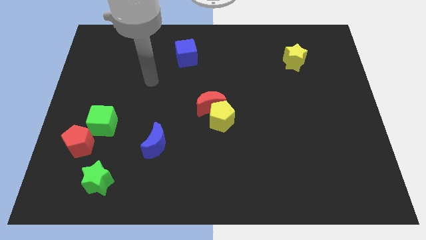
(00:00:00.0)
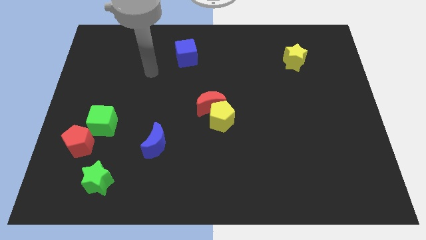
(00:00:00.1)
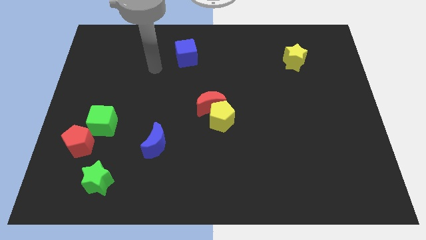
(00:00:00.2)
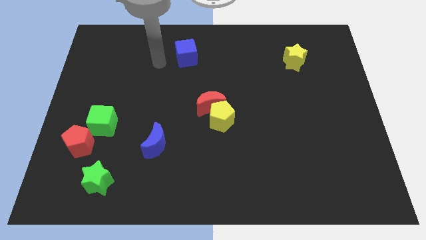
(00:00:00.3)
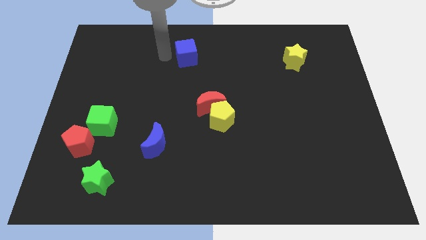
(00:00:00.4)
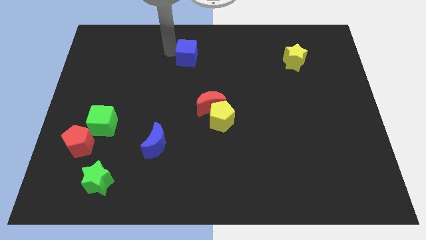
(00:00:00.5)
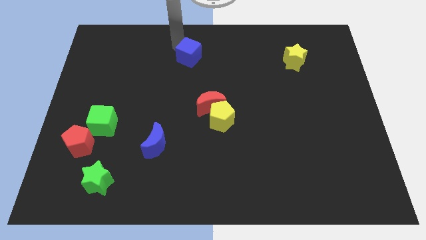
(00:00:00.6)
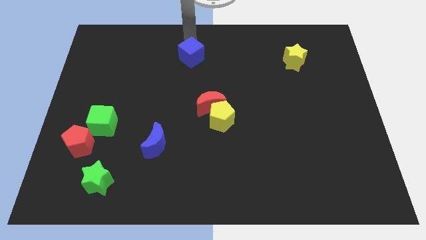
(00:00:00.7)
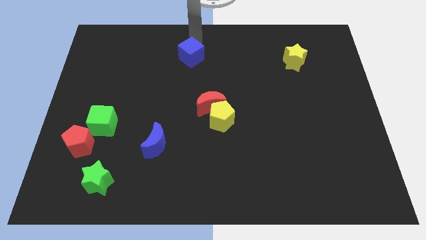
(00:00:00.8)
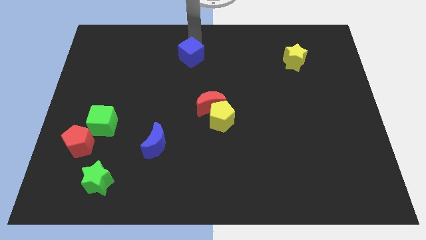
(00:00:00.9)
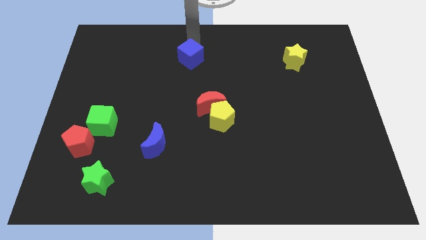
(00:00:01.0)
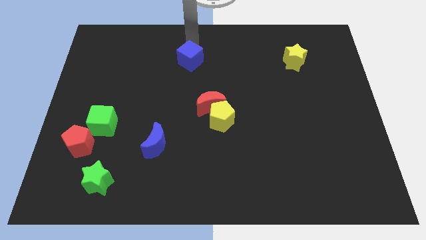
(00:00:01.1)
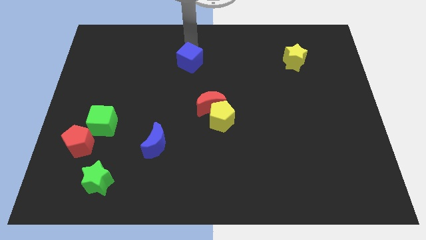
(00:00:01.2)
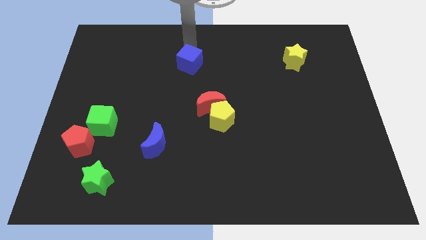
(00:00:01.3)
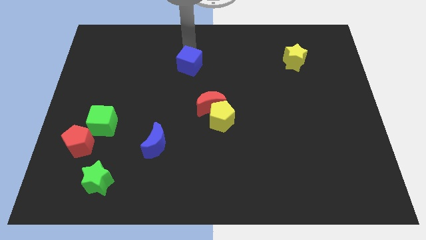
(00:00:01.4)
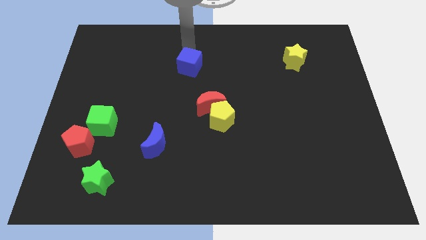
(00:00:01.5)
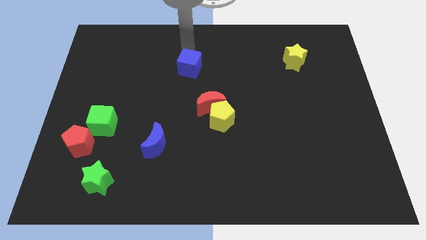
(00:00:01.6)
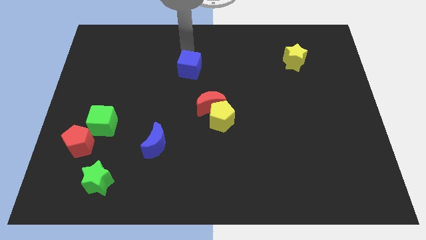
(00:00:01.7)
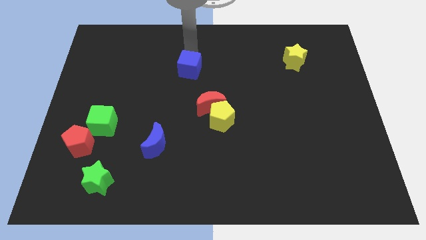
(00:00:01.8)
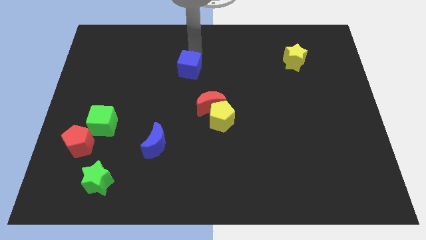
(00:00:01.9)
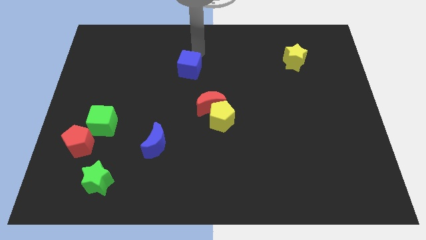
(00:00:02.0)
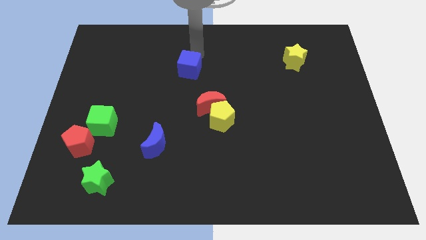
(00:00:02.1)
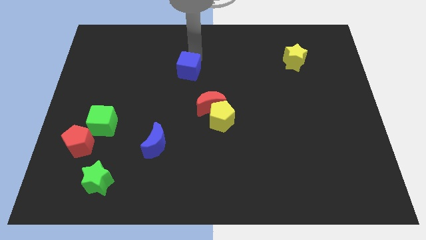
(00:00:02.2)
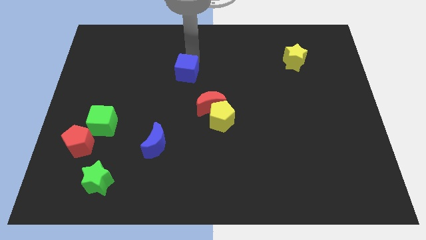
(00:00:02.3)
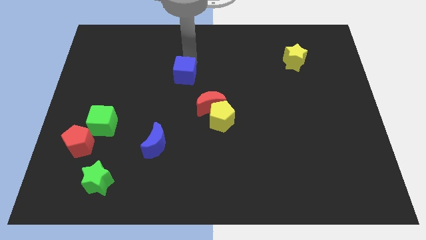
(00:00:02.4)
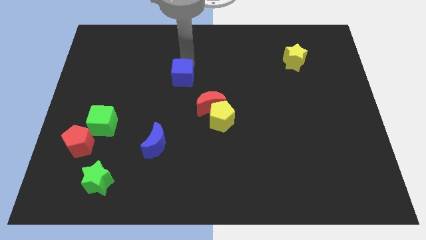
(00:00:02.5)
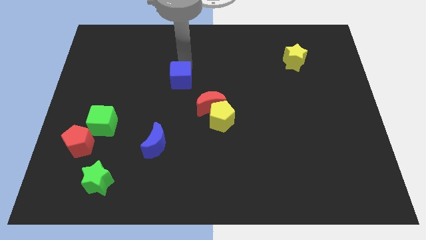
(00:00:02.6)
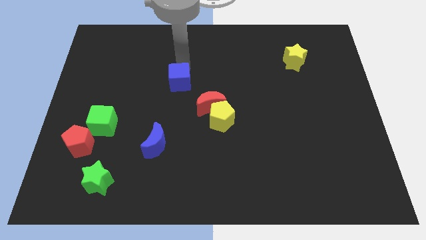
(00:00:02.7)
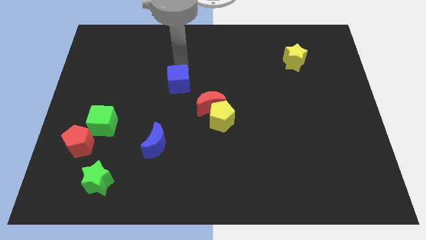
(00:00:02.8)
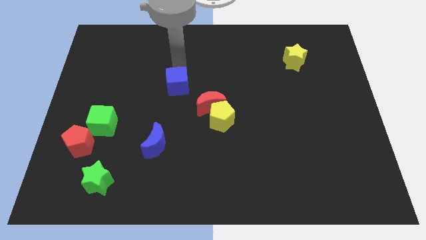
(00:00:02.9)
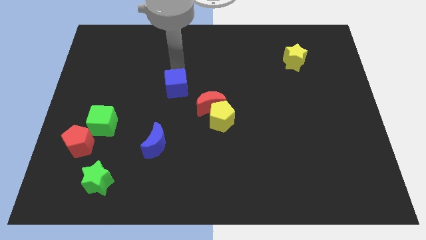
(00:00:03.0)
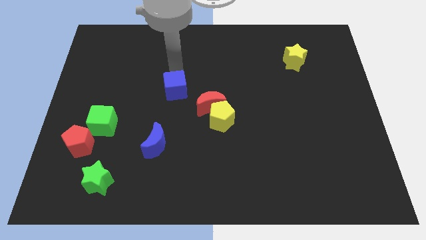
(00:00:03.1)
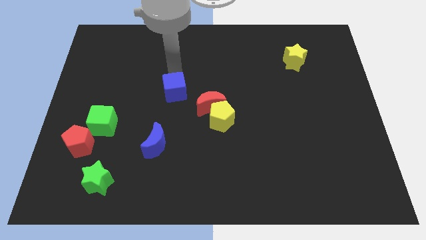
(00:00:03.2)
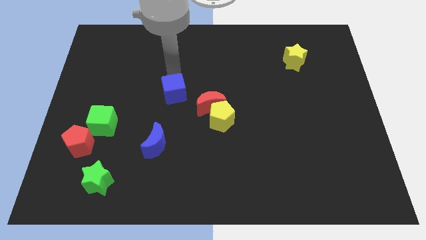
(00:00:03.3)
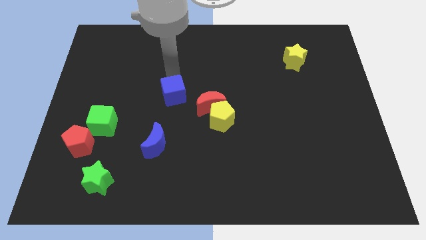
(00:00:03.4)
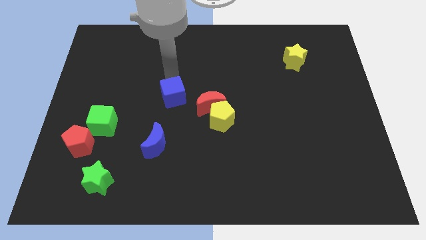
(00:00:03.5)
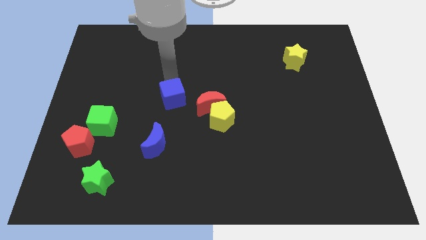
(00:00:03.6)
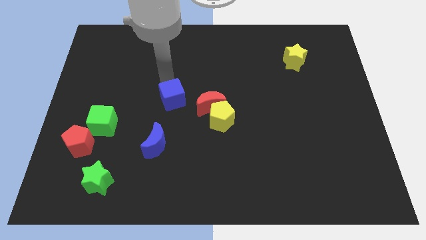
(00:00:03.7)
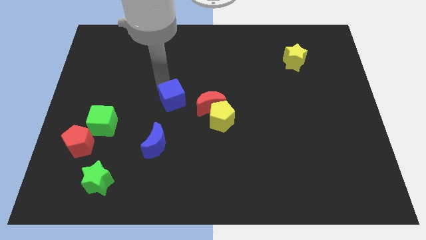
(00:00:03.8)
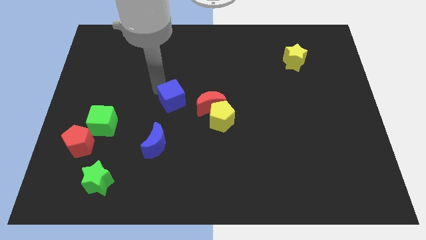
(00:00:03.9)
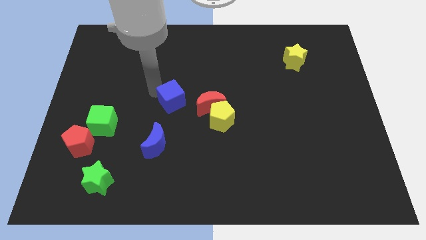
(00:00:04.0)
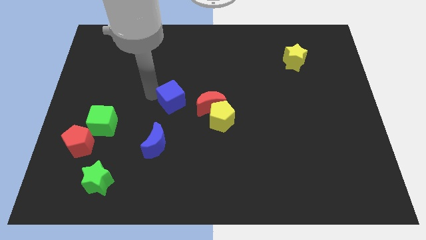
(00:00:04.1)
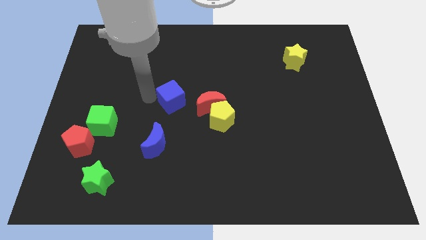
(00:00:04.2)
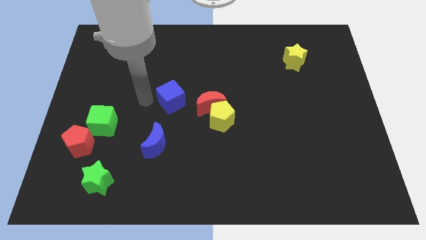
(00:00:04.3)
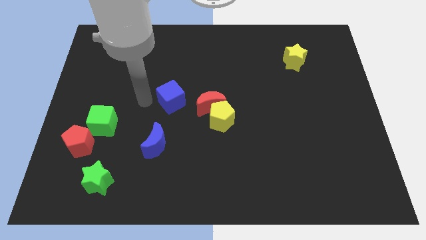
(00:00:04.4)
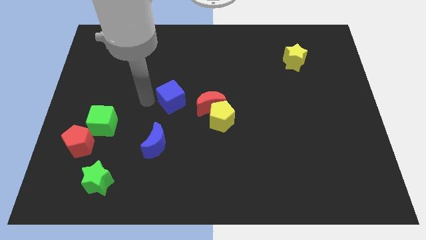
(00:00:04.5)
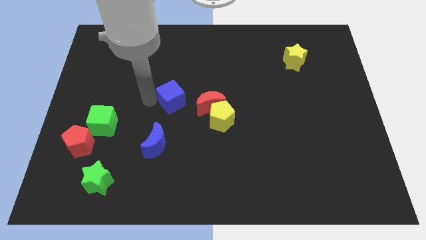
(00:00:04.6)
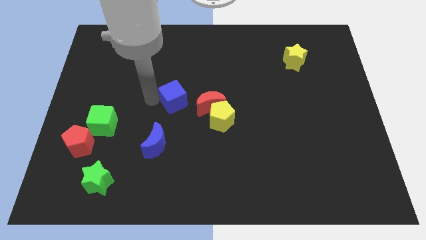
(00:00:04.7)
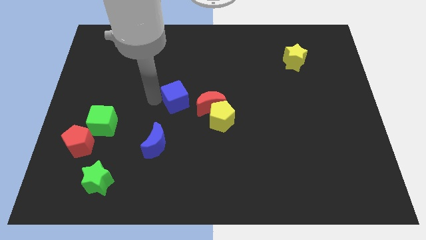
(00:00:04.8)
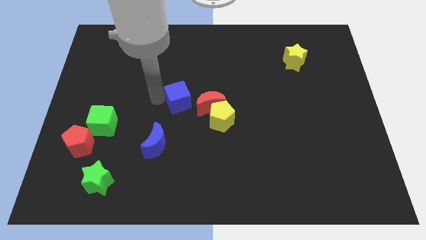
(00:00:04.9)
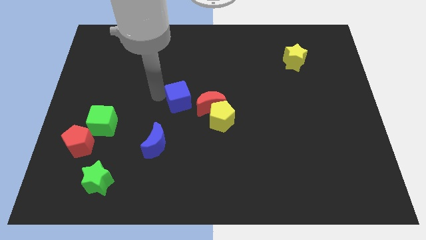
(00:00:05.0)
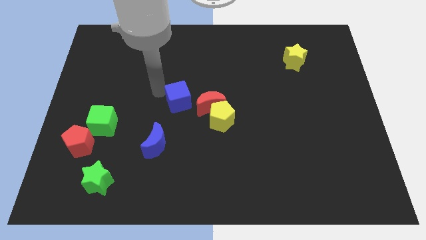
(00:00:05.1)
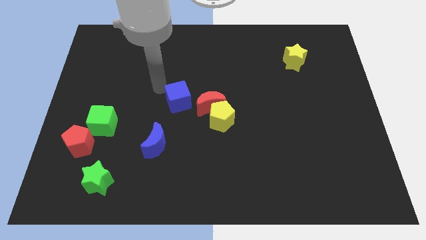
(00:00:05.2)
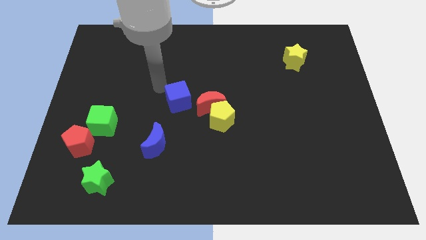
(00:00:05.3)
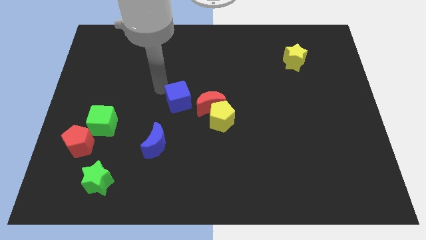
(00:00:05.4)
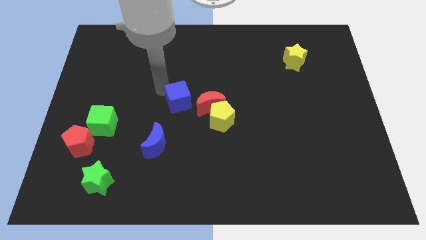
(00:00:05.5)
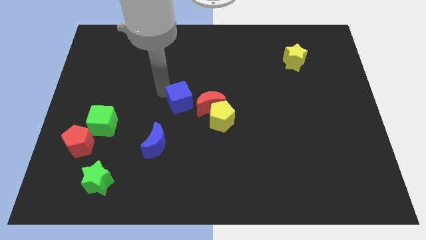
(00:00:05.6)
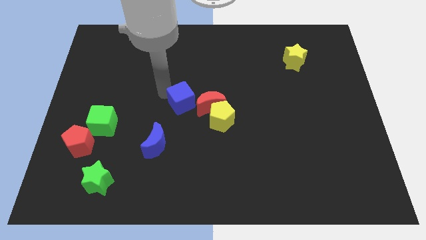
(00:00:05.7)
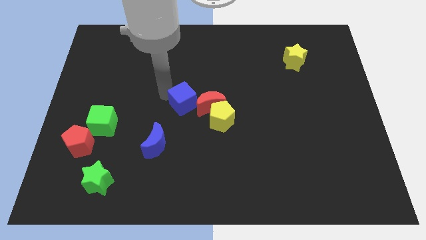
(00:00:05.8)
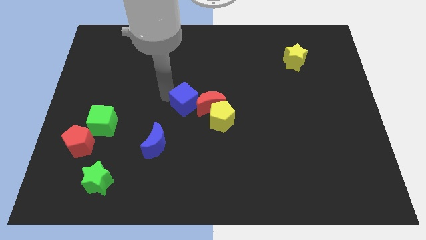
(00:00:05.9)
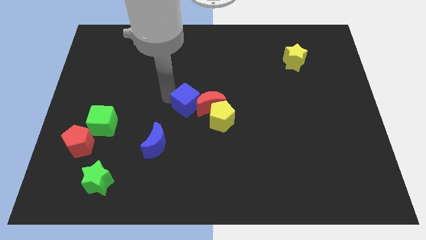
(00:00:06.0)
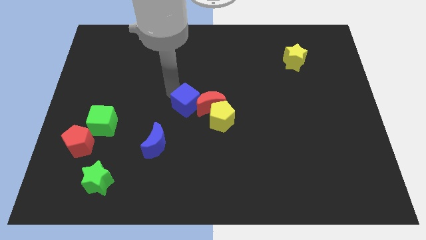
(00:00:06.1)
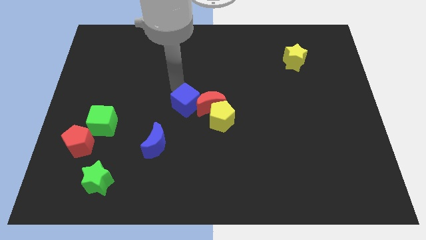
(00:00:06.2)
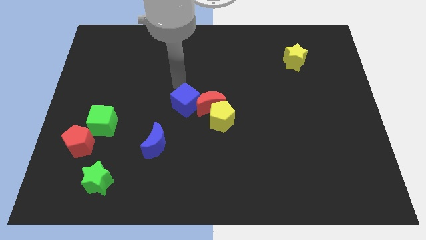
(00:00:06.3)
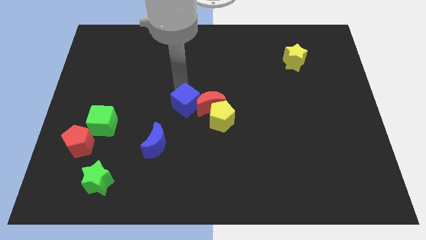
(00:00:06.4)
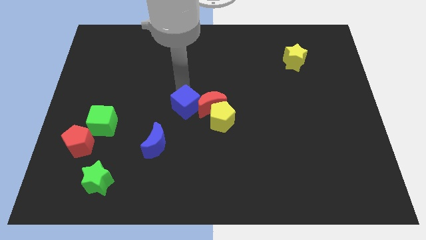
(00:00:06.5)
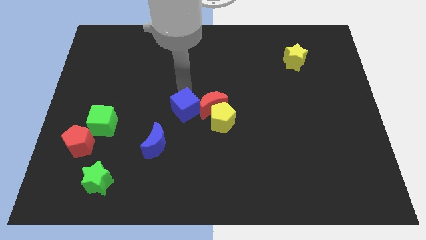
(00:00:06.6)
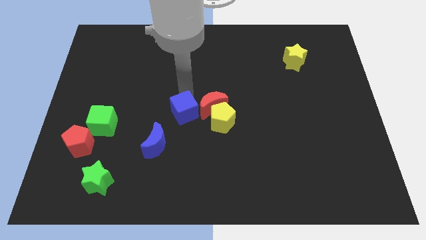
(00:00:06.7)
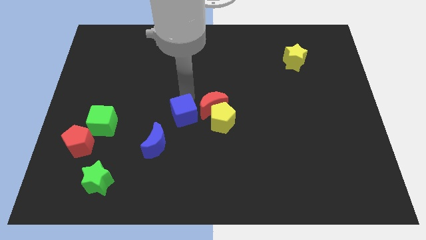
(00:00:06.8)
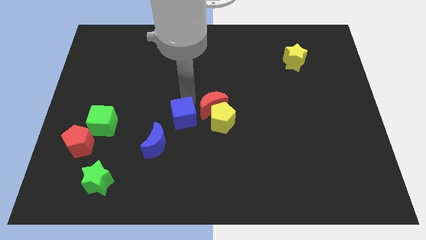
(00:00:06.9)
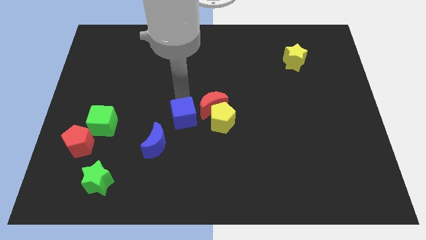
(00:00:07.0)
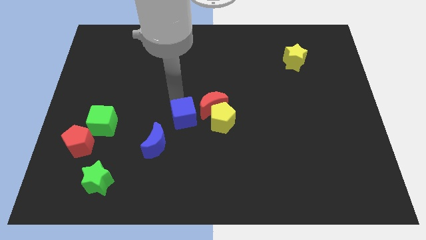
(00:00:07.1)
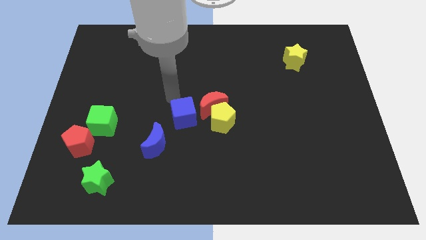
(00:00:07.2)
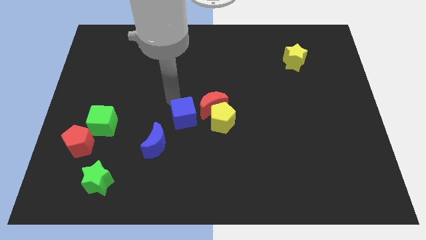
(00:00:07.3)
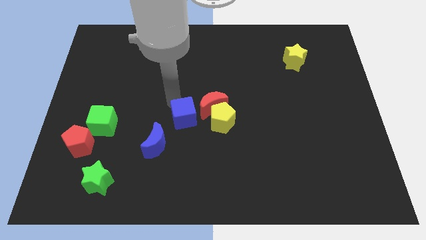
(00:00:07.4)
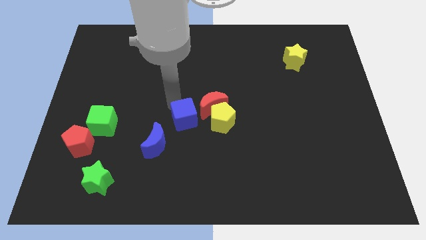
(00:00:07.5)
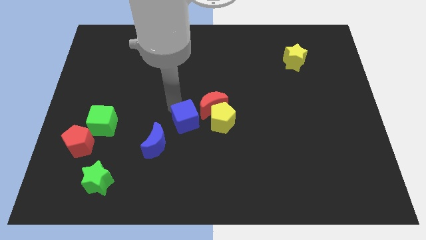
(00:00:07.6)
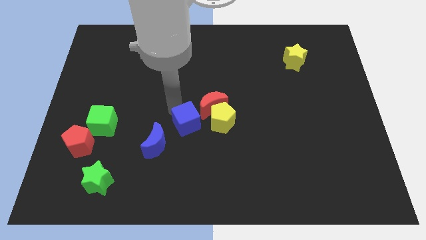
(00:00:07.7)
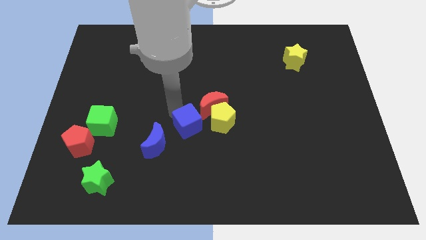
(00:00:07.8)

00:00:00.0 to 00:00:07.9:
move the blue cube to the bottom left side of the yellow pentagon

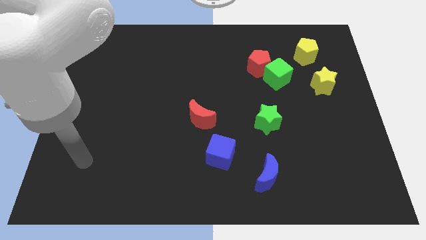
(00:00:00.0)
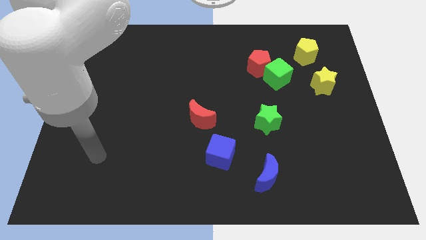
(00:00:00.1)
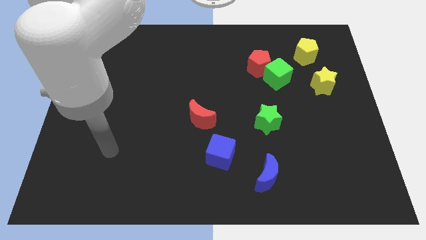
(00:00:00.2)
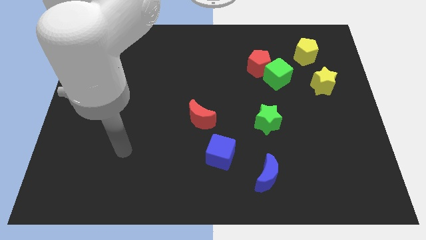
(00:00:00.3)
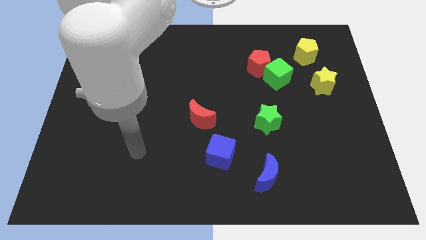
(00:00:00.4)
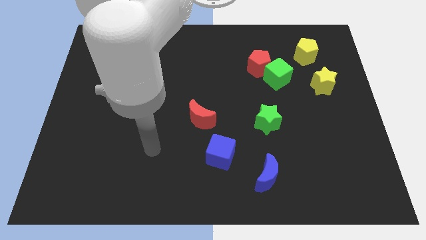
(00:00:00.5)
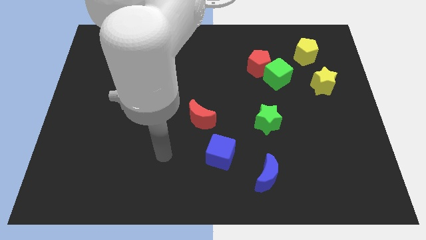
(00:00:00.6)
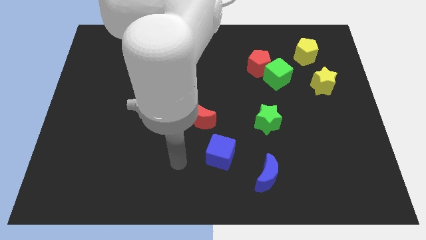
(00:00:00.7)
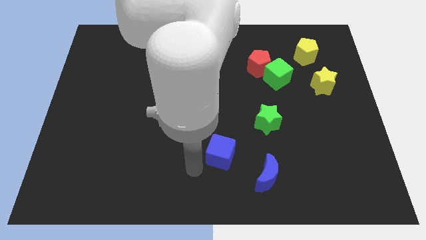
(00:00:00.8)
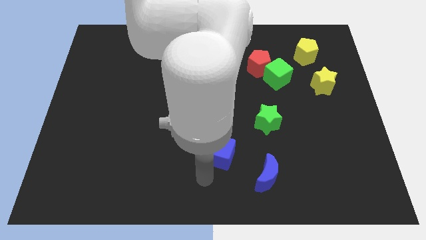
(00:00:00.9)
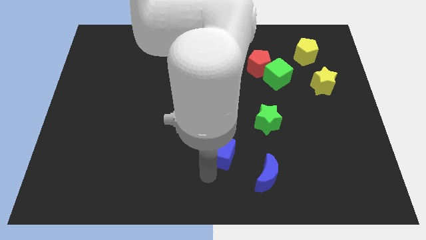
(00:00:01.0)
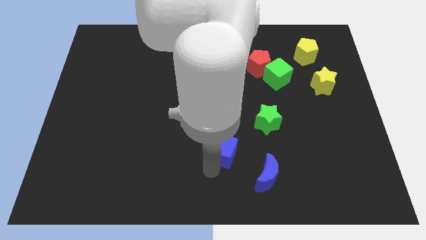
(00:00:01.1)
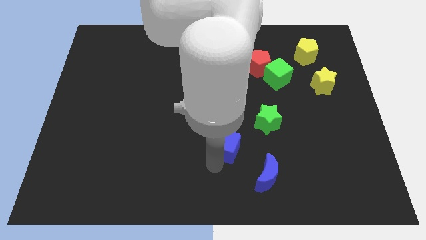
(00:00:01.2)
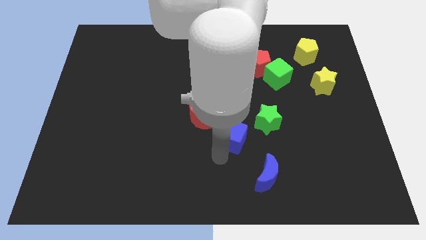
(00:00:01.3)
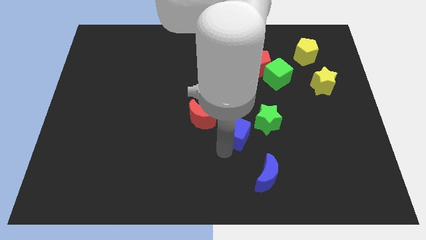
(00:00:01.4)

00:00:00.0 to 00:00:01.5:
put the blue cube to the right of the red moon
